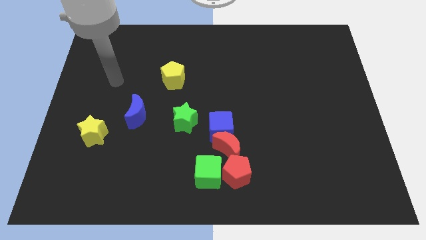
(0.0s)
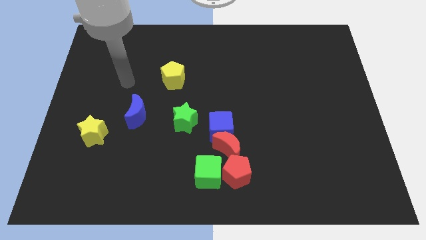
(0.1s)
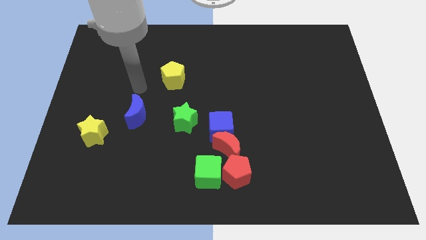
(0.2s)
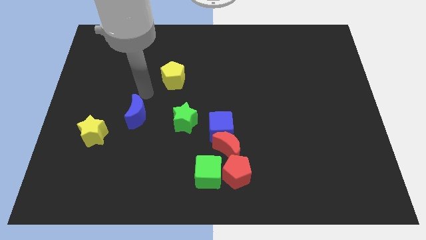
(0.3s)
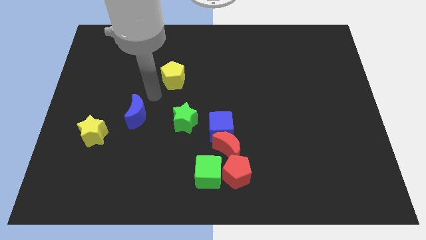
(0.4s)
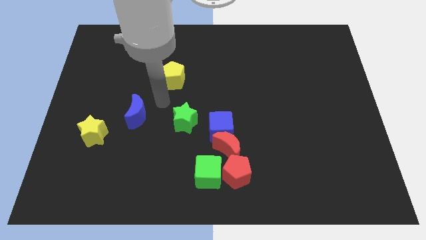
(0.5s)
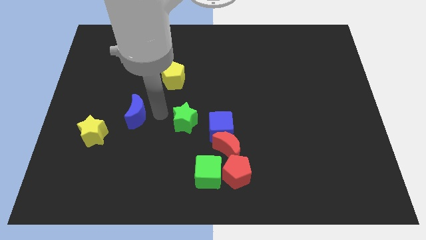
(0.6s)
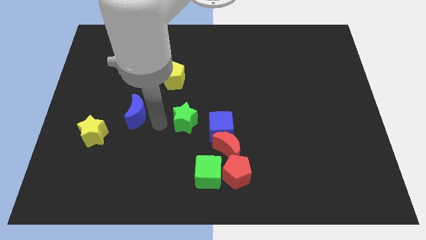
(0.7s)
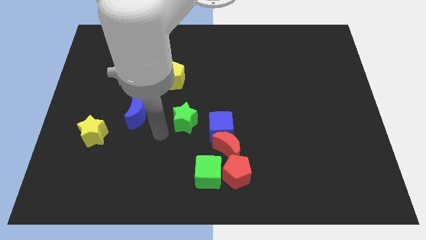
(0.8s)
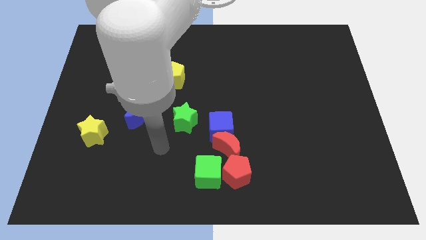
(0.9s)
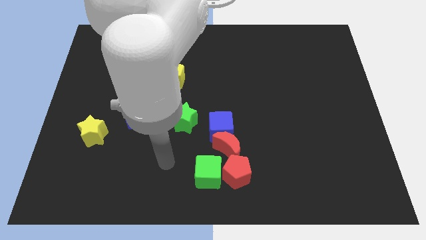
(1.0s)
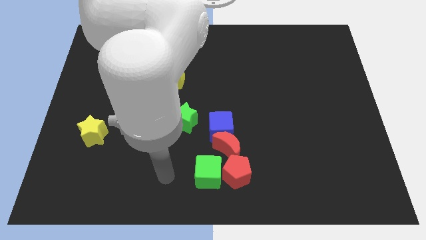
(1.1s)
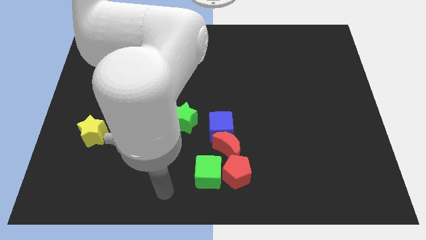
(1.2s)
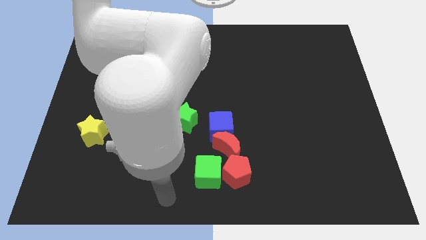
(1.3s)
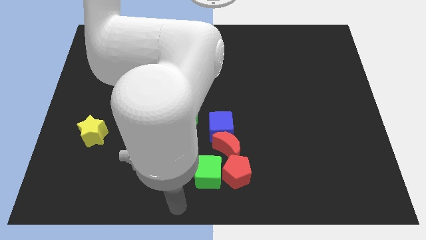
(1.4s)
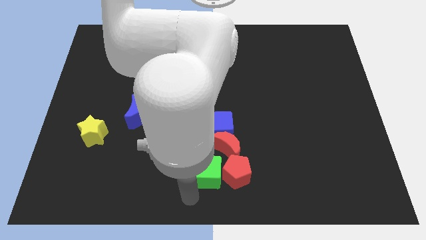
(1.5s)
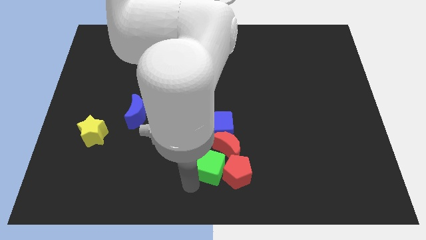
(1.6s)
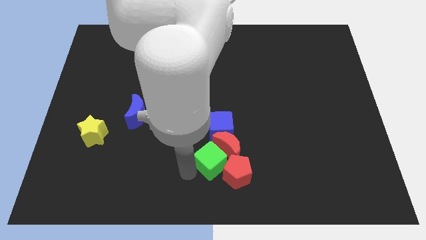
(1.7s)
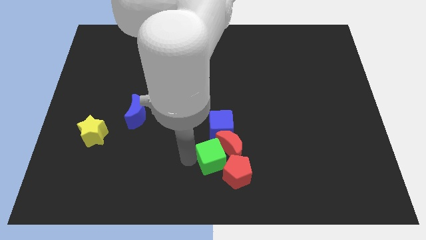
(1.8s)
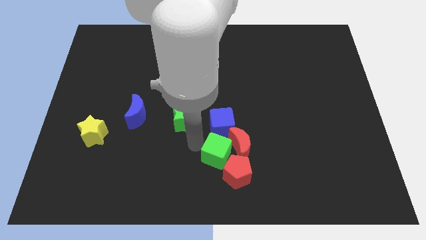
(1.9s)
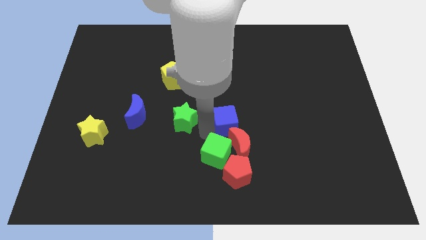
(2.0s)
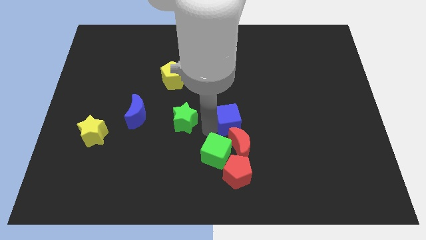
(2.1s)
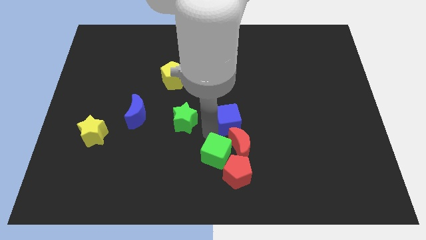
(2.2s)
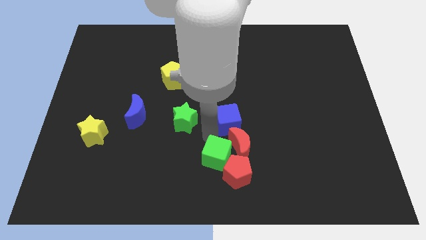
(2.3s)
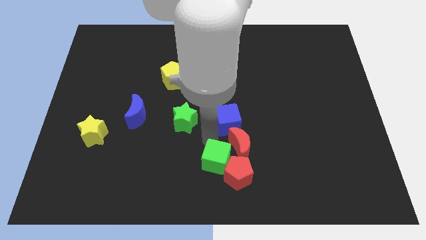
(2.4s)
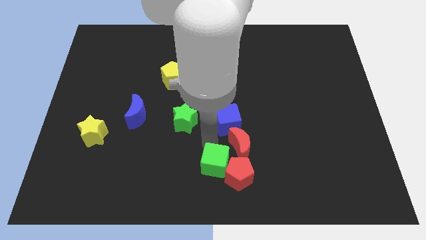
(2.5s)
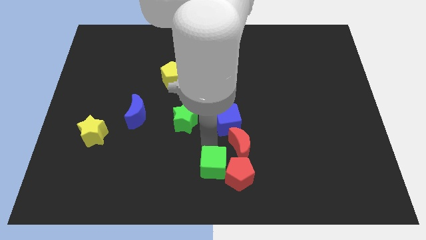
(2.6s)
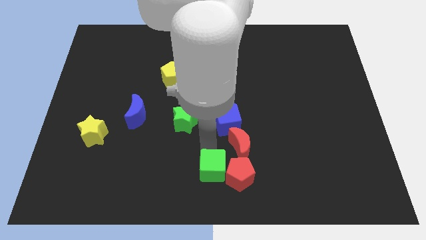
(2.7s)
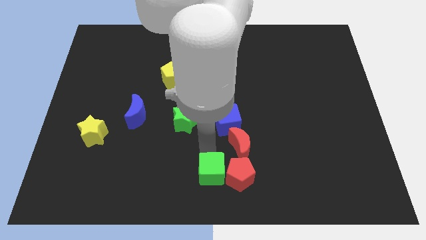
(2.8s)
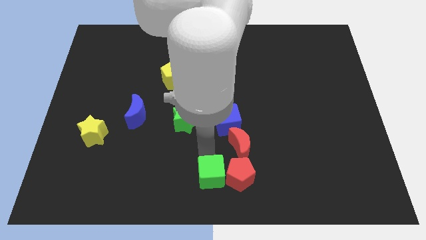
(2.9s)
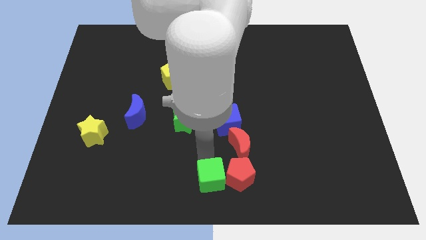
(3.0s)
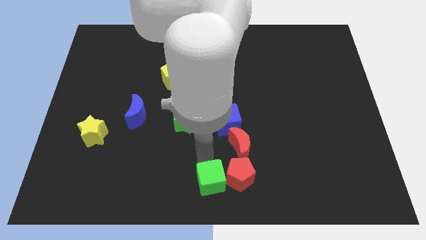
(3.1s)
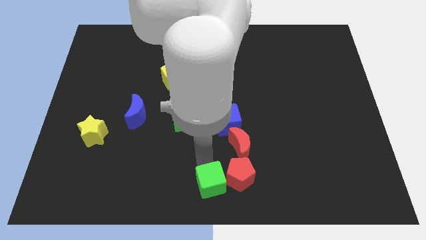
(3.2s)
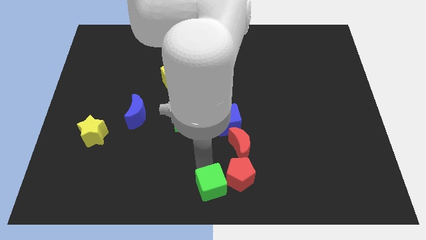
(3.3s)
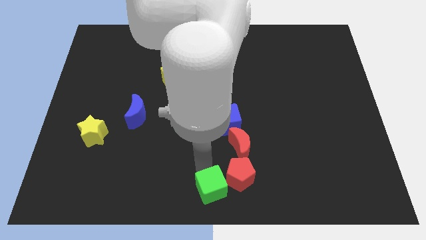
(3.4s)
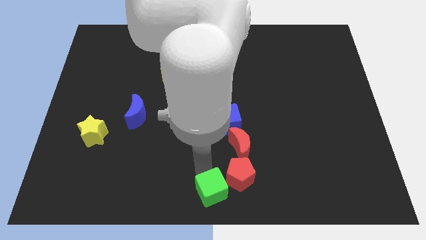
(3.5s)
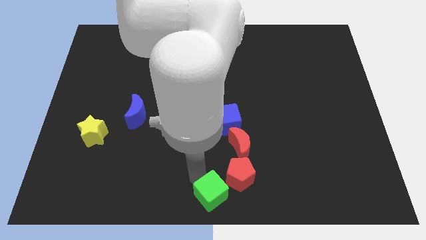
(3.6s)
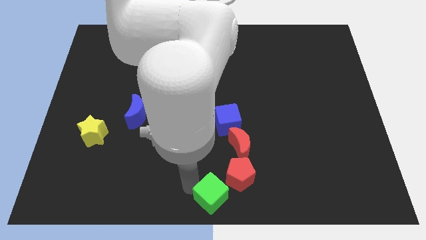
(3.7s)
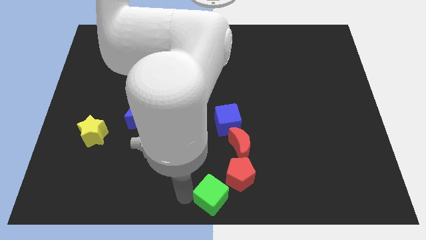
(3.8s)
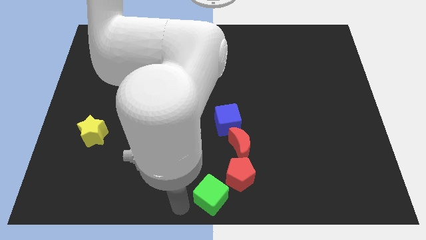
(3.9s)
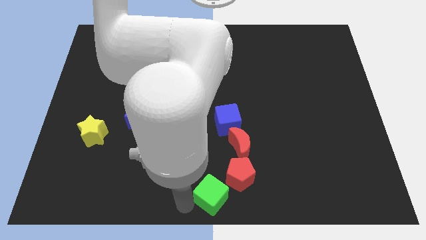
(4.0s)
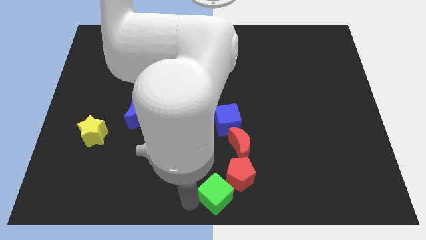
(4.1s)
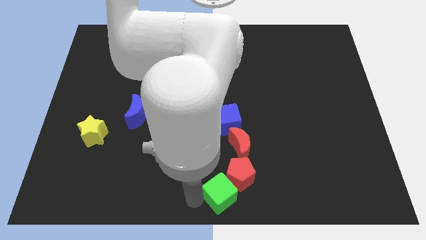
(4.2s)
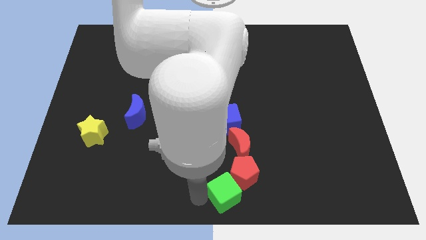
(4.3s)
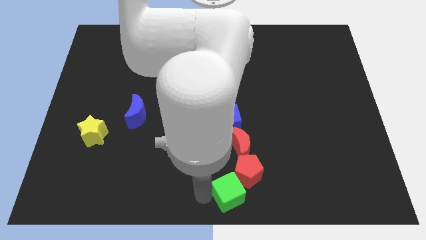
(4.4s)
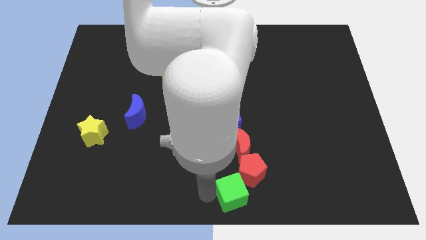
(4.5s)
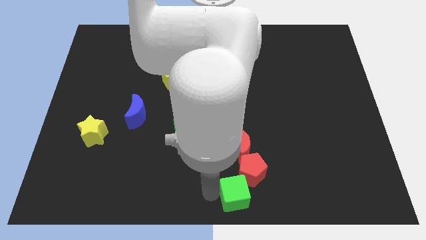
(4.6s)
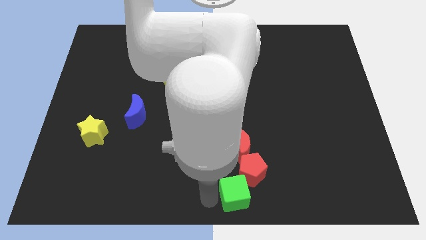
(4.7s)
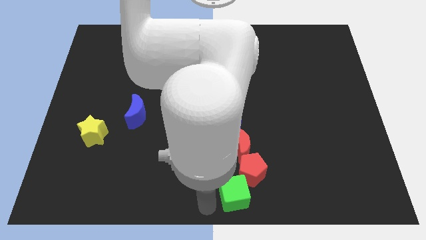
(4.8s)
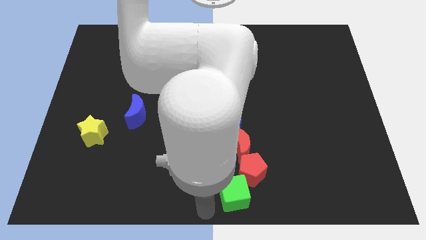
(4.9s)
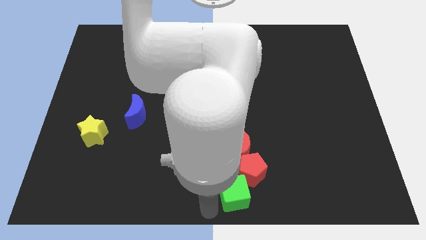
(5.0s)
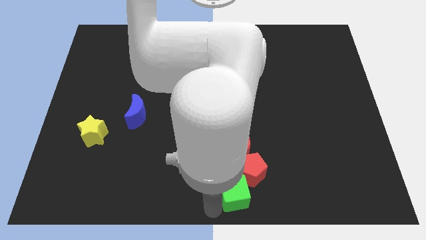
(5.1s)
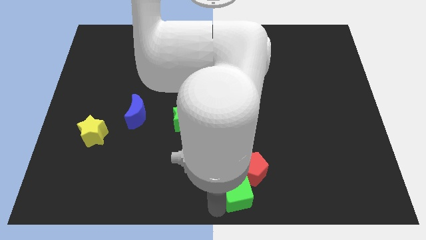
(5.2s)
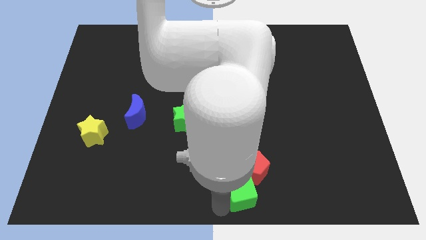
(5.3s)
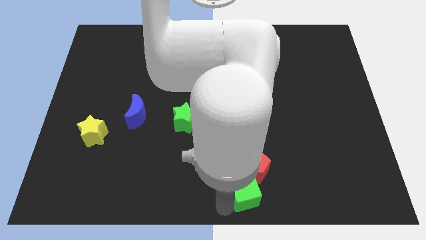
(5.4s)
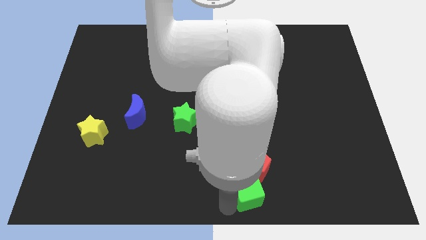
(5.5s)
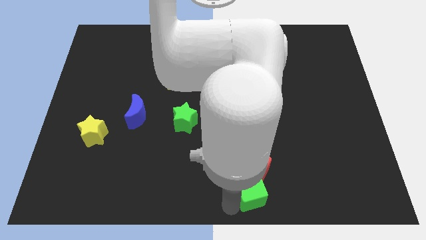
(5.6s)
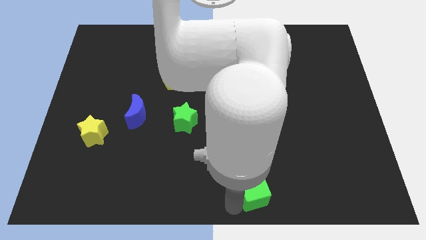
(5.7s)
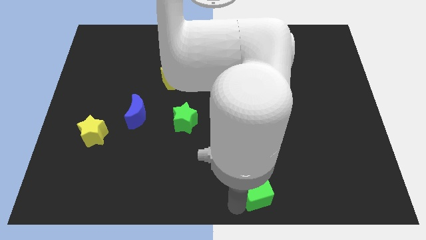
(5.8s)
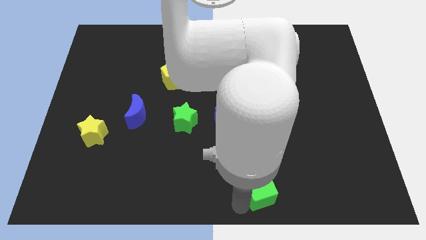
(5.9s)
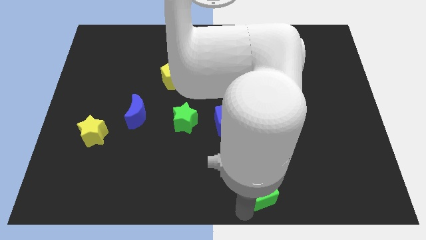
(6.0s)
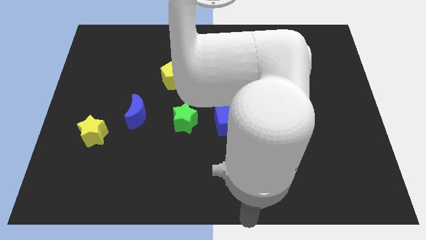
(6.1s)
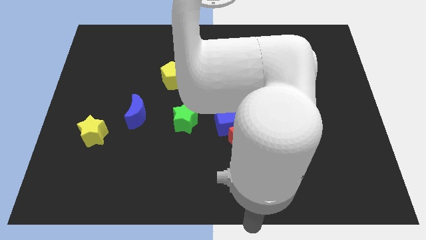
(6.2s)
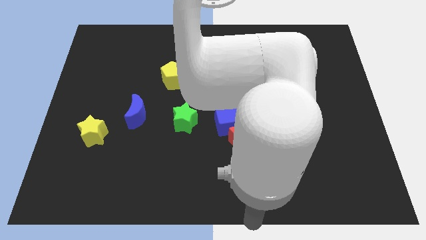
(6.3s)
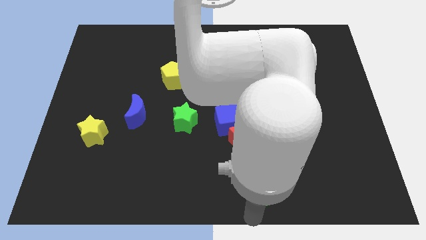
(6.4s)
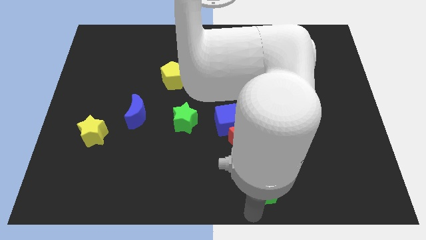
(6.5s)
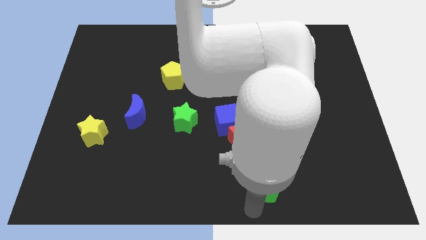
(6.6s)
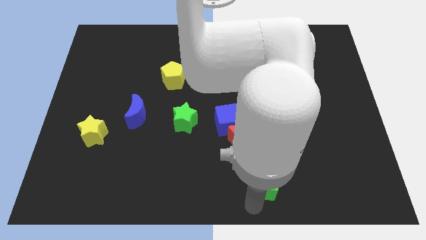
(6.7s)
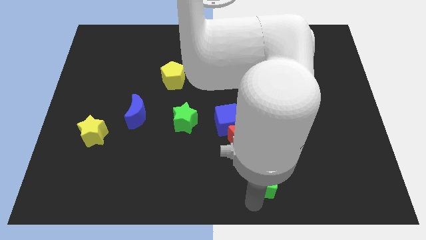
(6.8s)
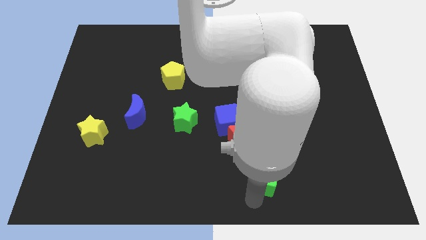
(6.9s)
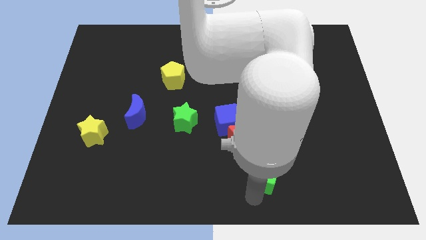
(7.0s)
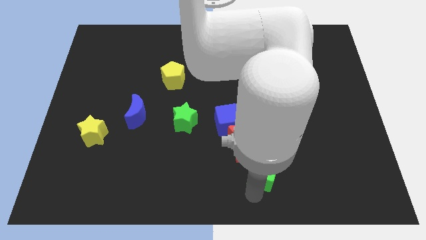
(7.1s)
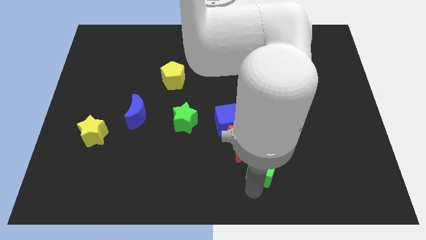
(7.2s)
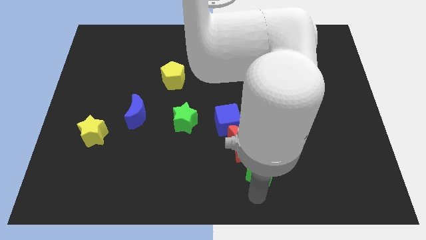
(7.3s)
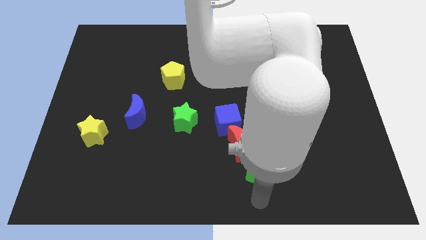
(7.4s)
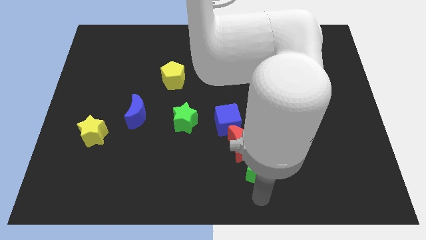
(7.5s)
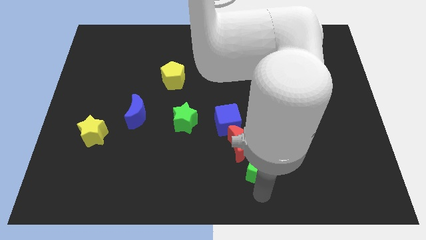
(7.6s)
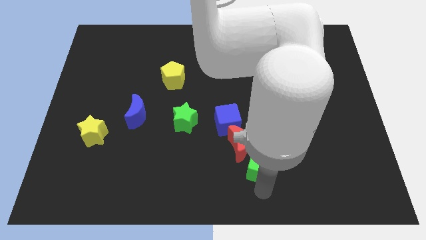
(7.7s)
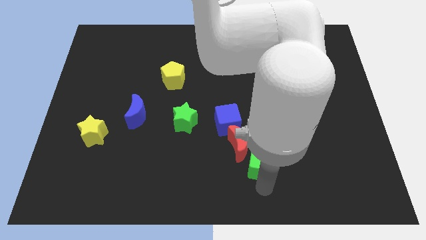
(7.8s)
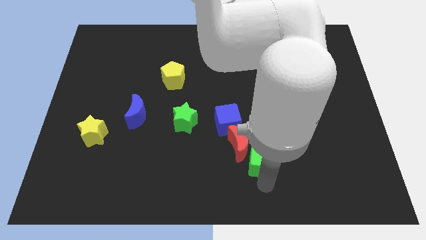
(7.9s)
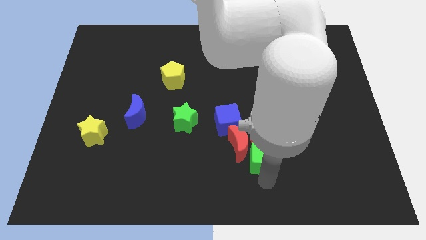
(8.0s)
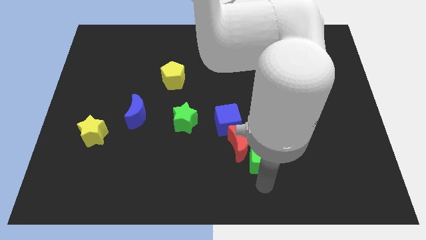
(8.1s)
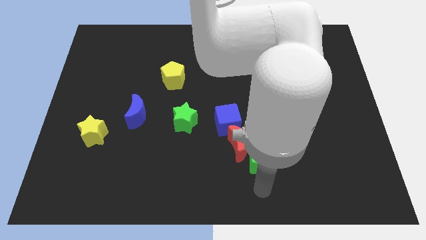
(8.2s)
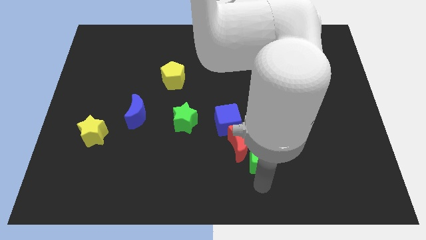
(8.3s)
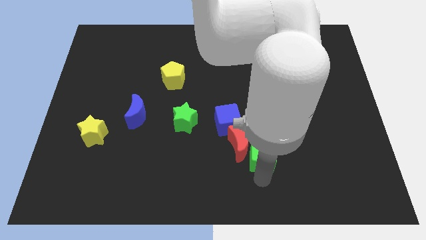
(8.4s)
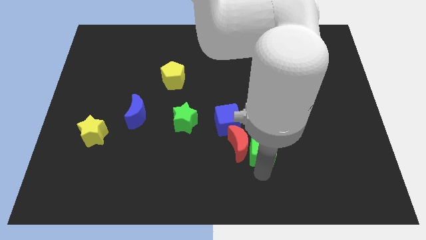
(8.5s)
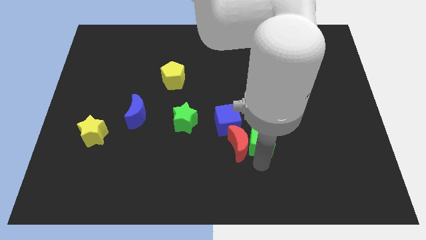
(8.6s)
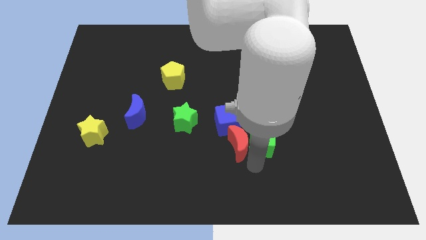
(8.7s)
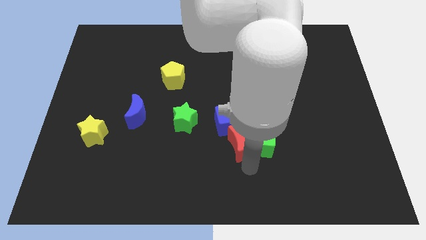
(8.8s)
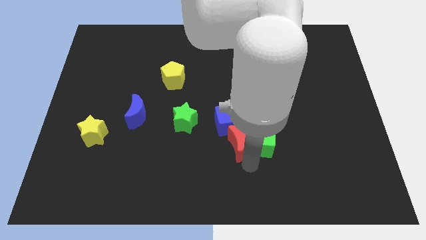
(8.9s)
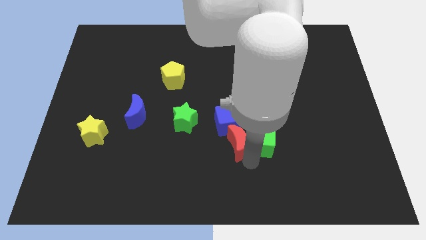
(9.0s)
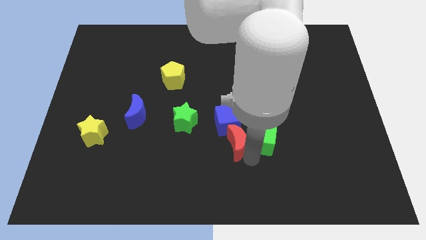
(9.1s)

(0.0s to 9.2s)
put the green cube to the right side of the blue cube
